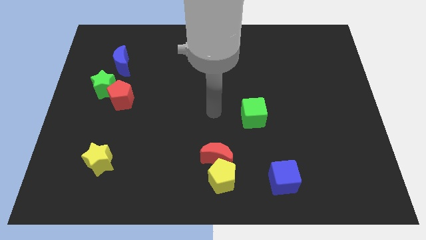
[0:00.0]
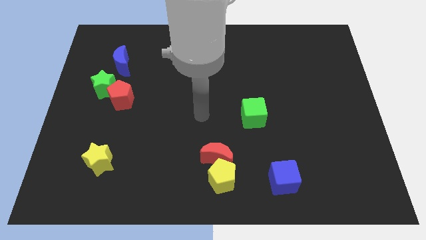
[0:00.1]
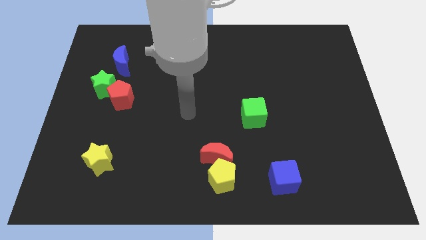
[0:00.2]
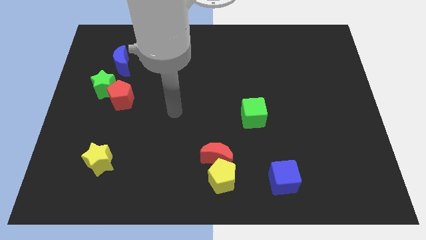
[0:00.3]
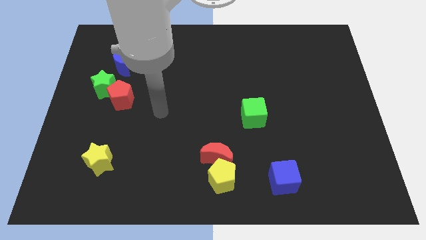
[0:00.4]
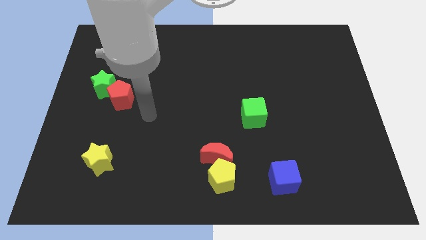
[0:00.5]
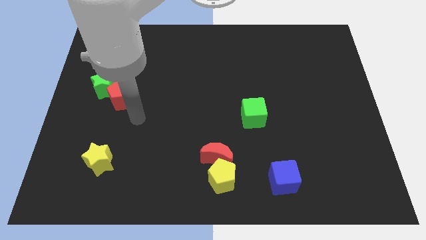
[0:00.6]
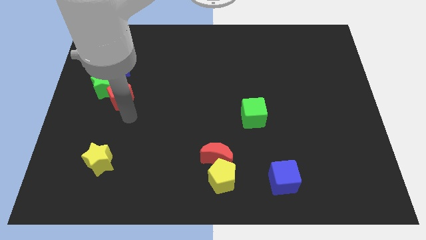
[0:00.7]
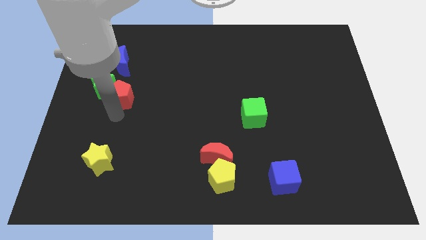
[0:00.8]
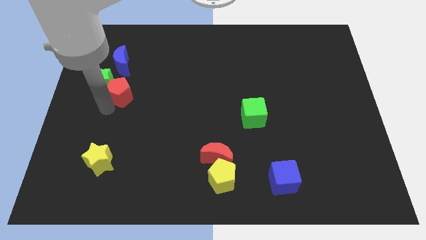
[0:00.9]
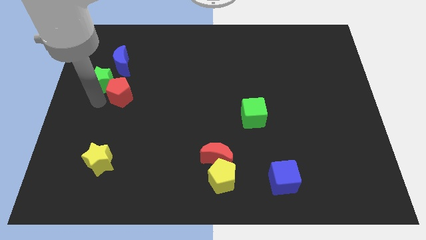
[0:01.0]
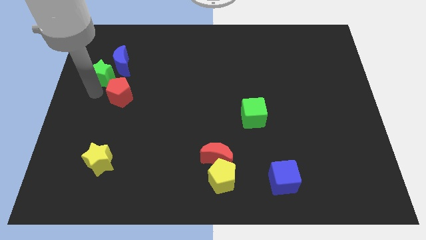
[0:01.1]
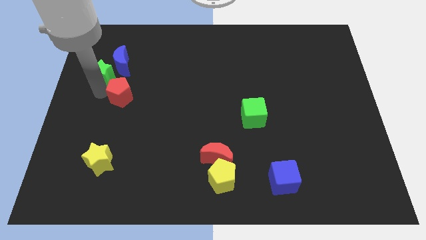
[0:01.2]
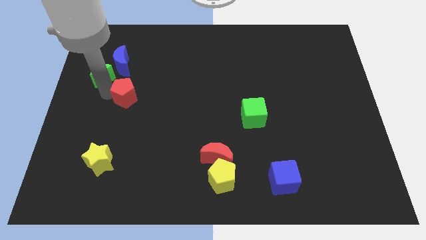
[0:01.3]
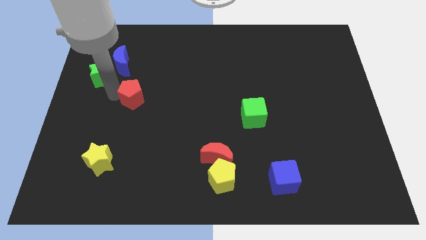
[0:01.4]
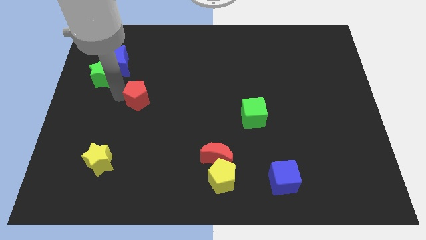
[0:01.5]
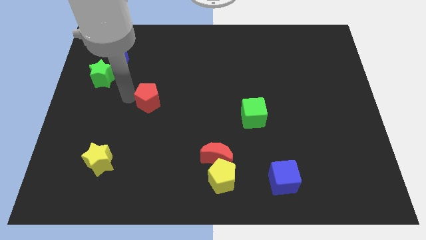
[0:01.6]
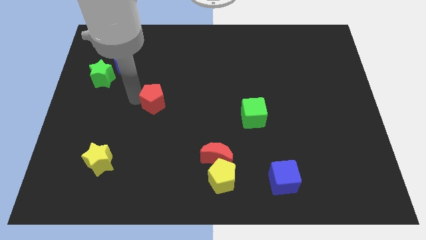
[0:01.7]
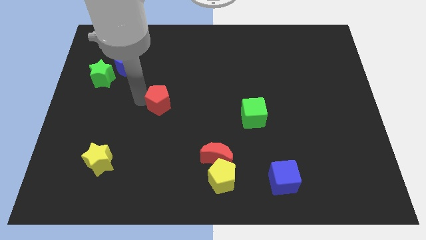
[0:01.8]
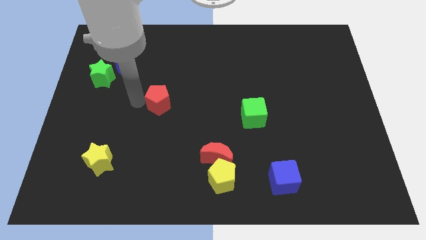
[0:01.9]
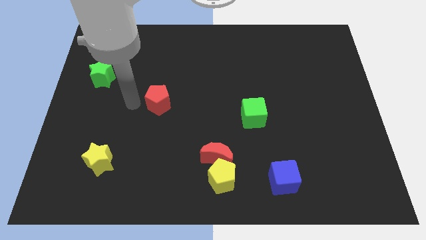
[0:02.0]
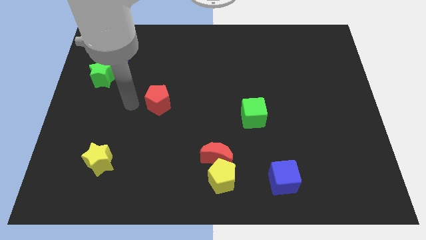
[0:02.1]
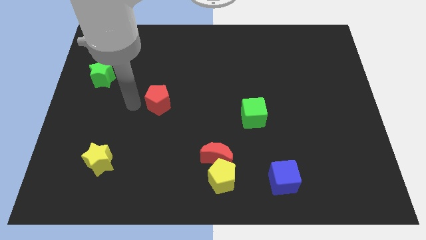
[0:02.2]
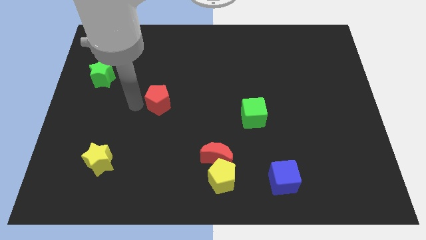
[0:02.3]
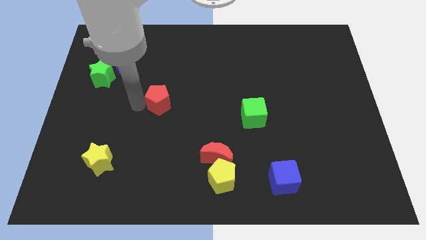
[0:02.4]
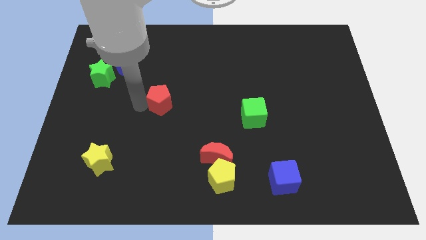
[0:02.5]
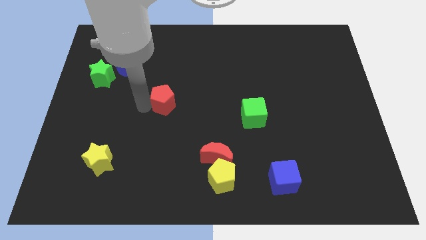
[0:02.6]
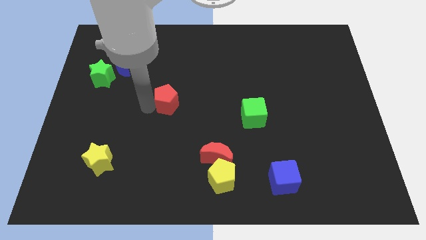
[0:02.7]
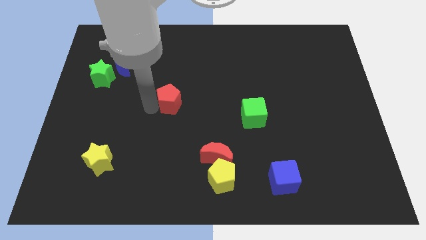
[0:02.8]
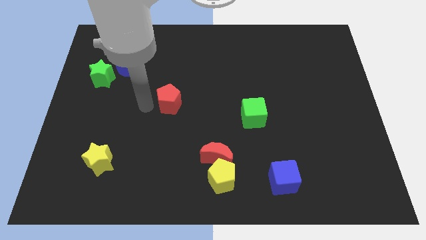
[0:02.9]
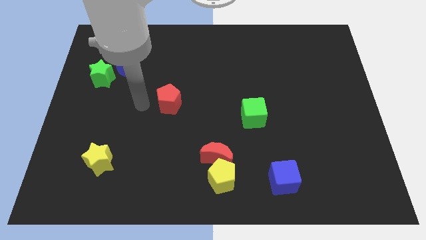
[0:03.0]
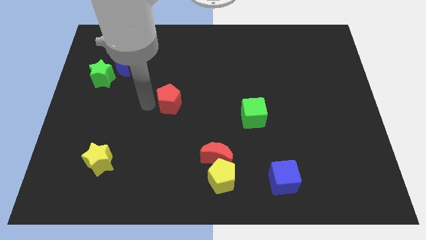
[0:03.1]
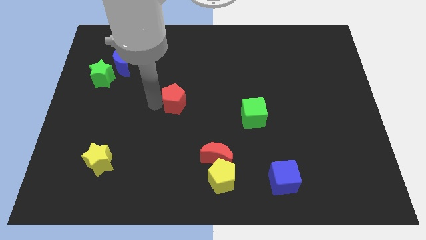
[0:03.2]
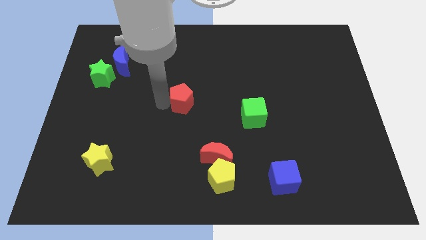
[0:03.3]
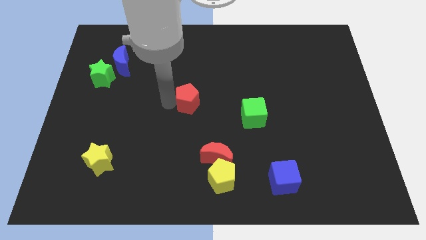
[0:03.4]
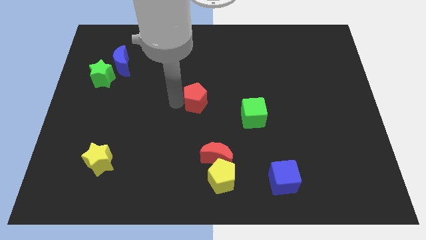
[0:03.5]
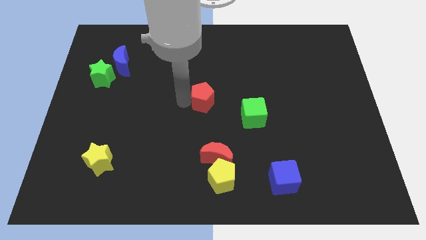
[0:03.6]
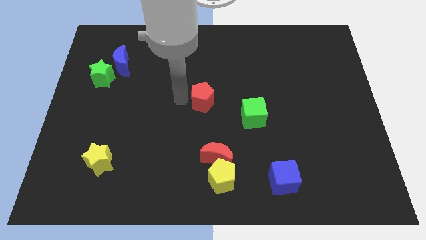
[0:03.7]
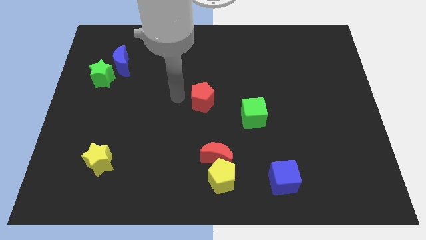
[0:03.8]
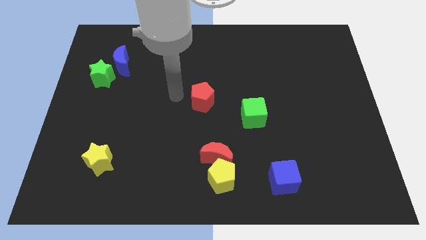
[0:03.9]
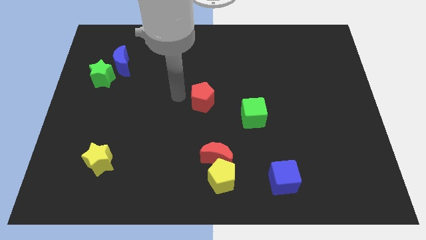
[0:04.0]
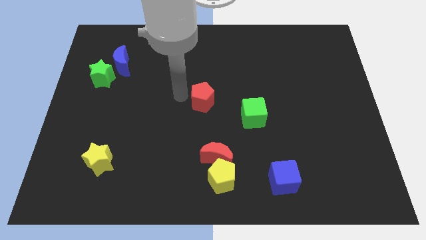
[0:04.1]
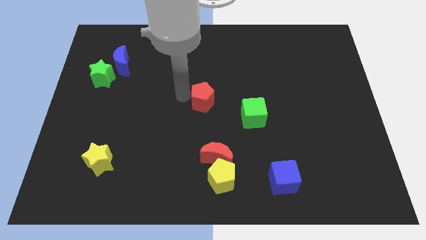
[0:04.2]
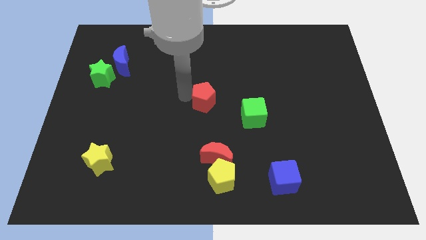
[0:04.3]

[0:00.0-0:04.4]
push the red pentagon right

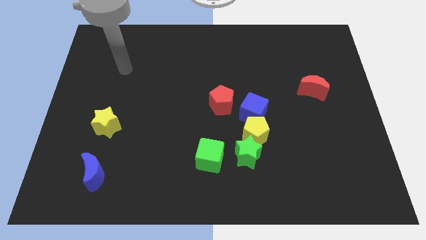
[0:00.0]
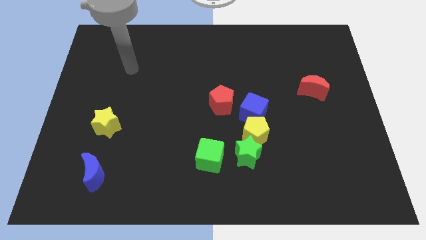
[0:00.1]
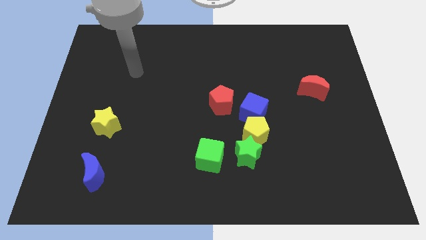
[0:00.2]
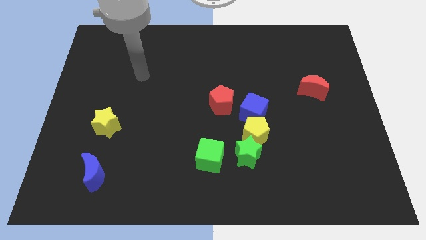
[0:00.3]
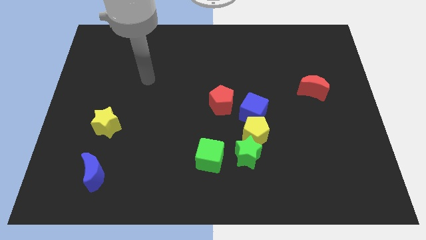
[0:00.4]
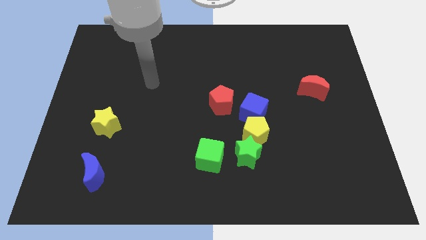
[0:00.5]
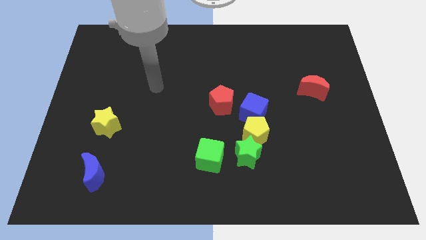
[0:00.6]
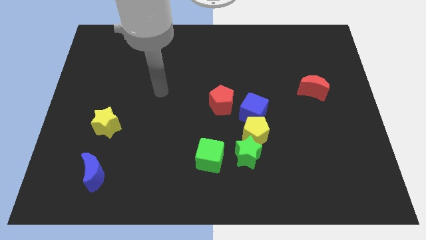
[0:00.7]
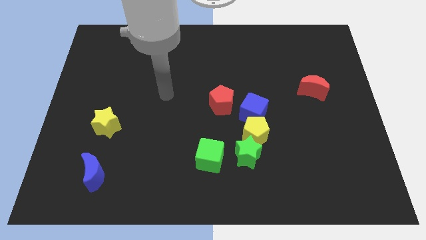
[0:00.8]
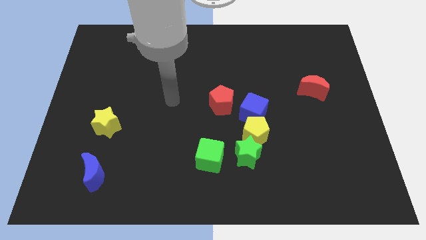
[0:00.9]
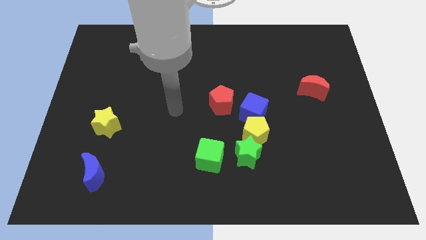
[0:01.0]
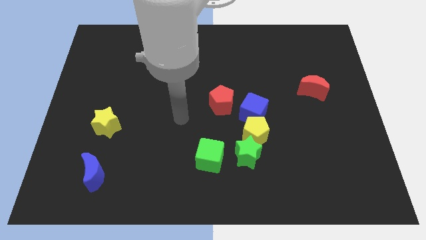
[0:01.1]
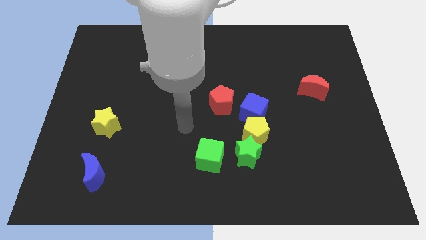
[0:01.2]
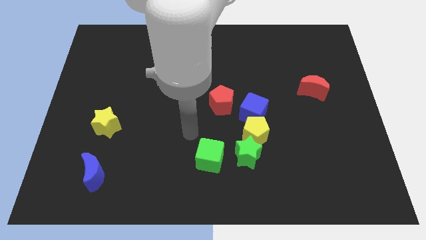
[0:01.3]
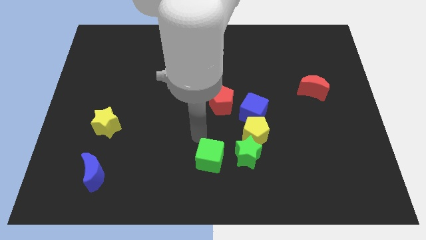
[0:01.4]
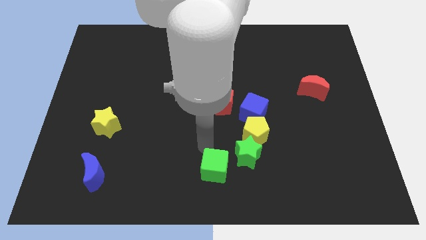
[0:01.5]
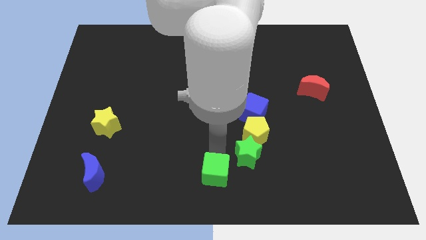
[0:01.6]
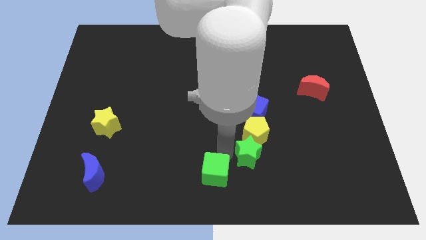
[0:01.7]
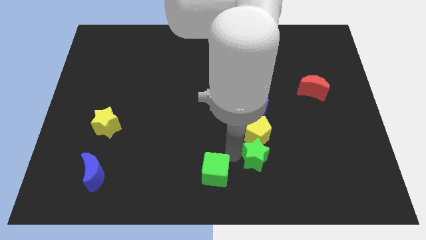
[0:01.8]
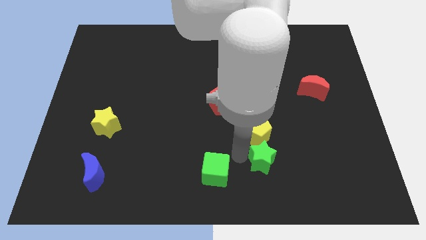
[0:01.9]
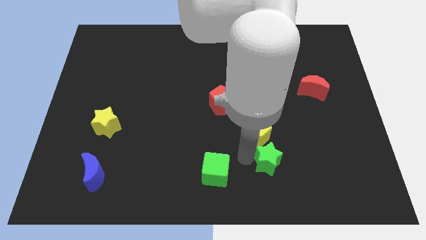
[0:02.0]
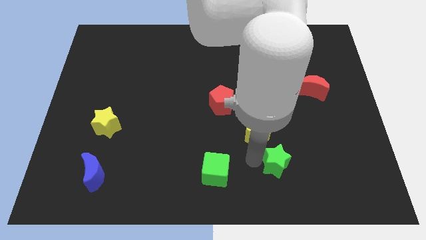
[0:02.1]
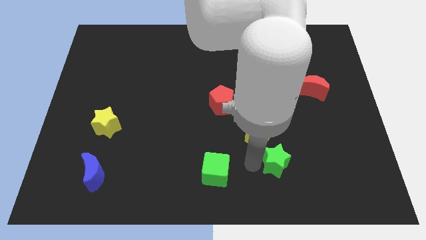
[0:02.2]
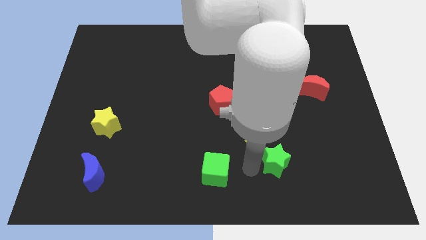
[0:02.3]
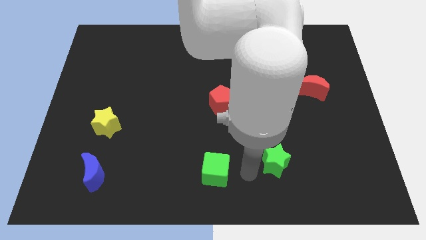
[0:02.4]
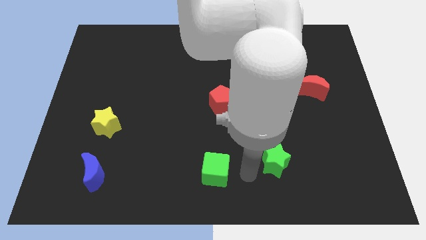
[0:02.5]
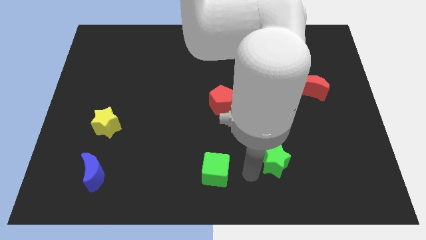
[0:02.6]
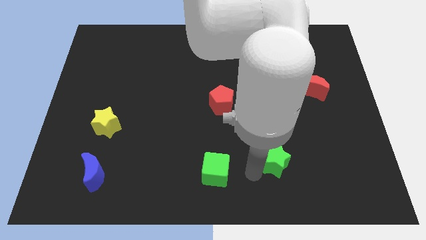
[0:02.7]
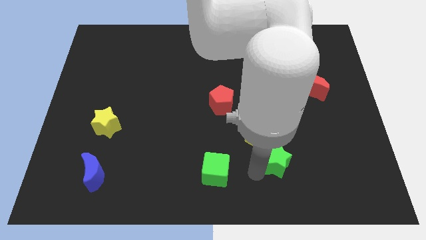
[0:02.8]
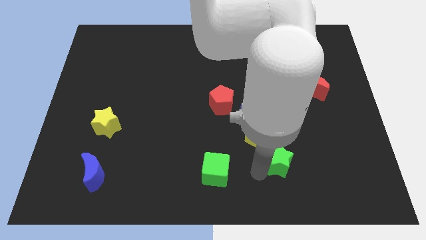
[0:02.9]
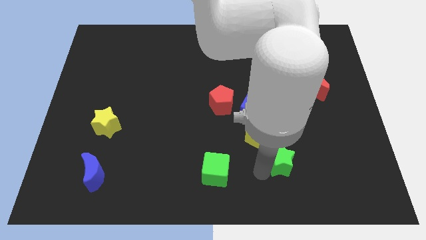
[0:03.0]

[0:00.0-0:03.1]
push the green star right a little bit

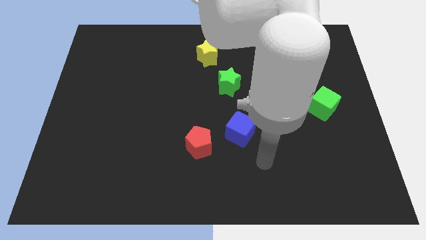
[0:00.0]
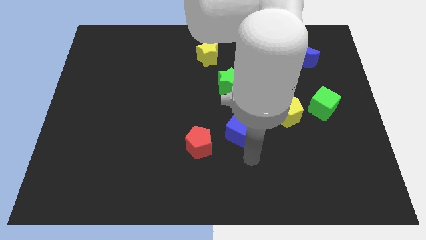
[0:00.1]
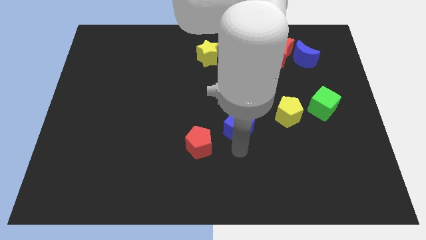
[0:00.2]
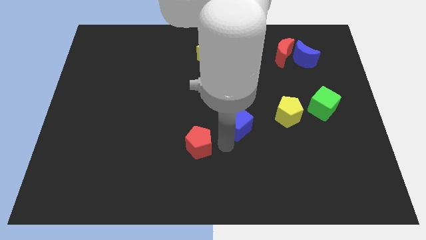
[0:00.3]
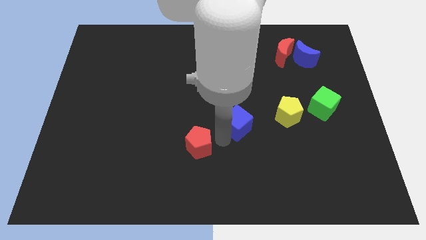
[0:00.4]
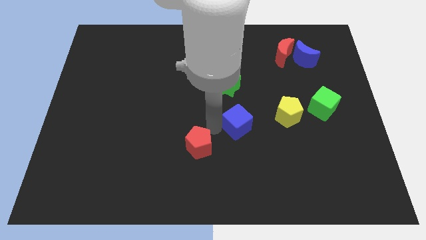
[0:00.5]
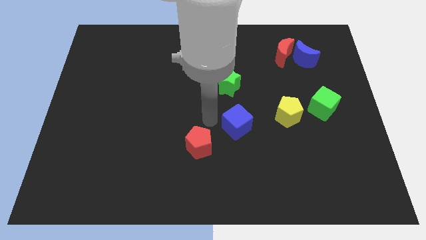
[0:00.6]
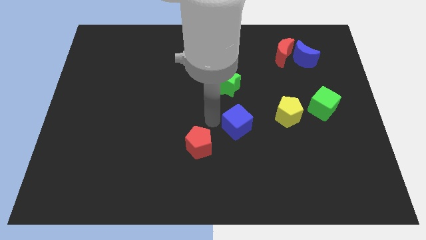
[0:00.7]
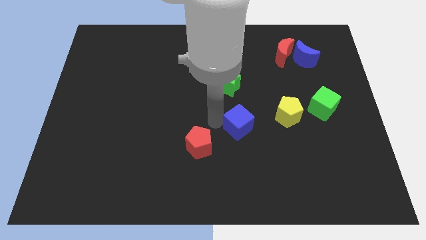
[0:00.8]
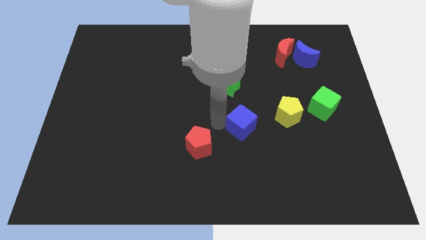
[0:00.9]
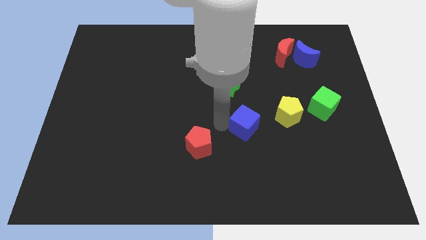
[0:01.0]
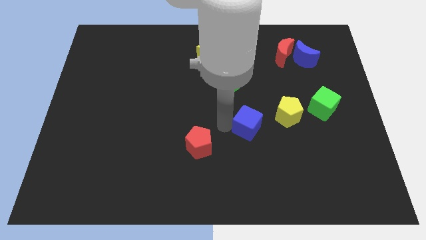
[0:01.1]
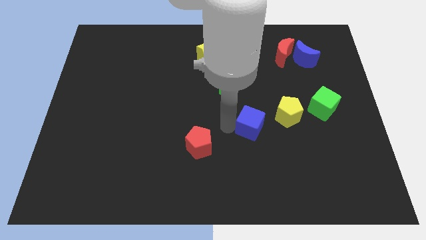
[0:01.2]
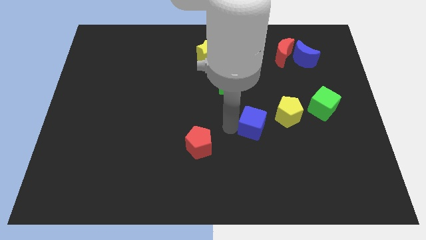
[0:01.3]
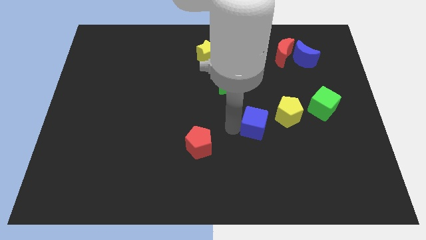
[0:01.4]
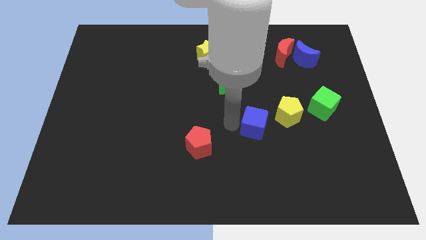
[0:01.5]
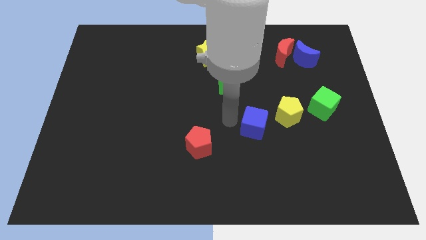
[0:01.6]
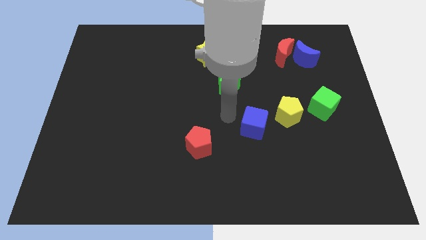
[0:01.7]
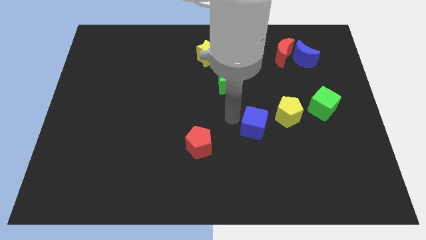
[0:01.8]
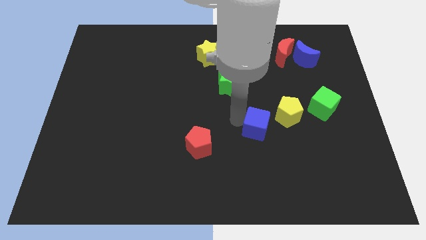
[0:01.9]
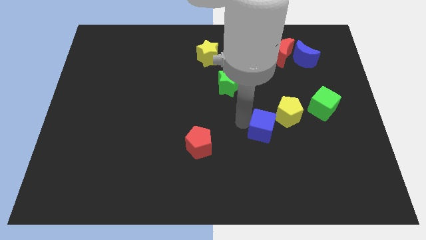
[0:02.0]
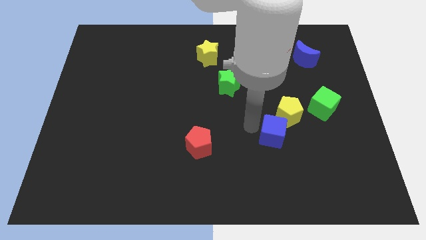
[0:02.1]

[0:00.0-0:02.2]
move the blue cube somewhat to the right
